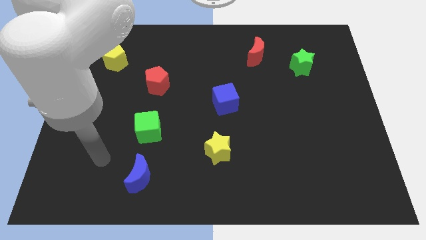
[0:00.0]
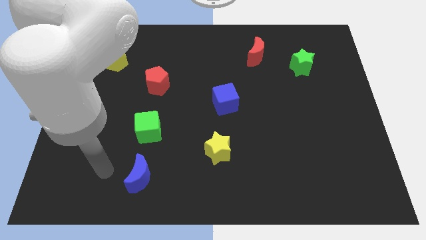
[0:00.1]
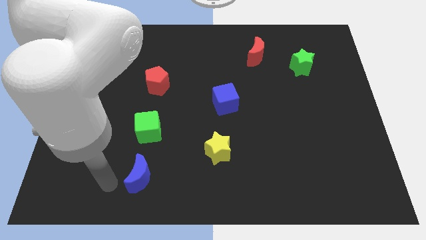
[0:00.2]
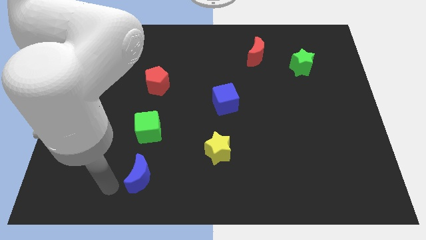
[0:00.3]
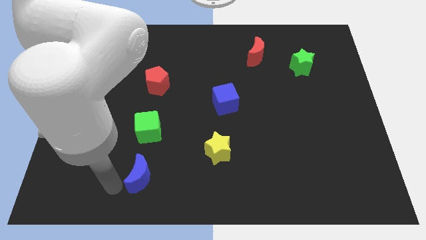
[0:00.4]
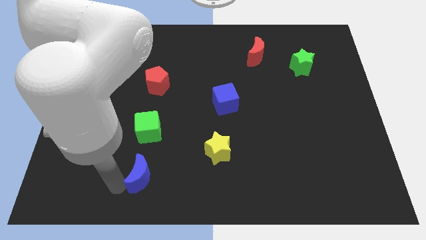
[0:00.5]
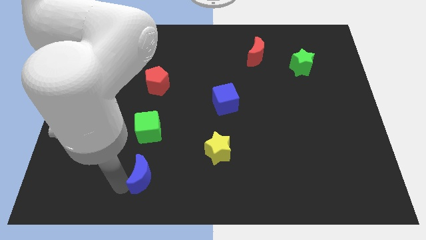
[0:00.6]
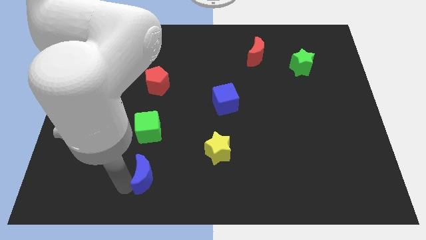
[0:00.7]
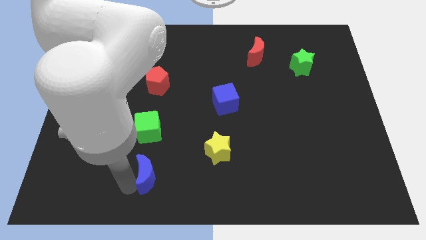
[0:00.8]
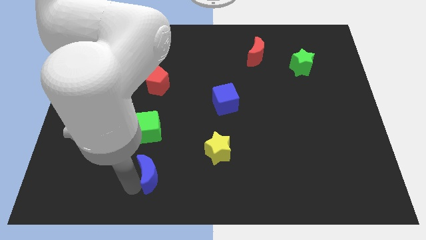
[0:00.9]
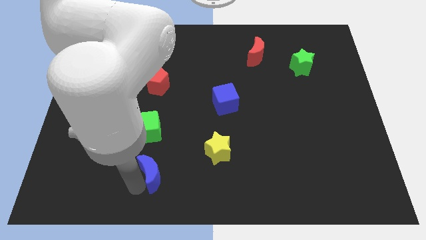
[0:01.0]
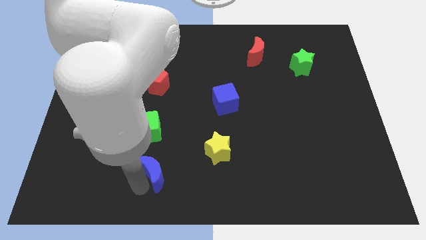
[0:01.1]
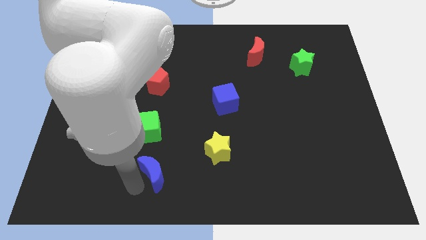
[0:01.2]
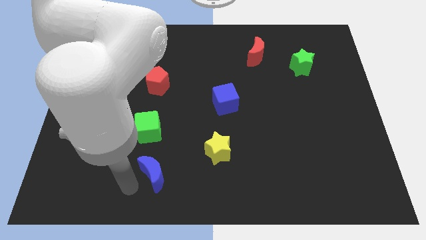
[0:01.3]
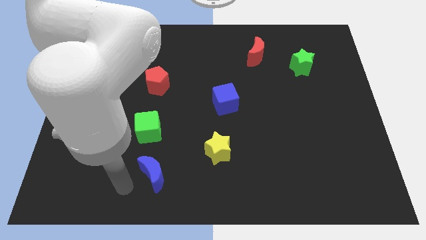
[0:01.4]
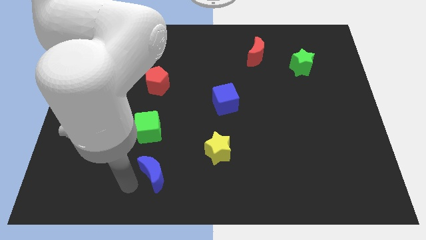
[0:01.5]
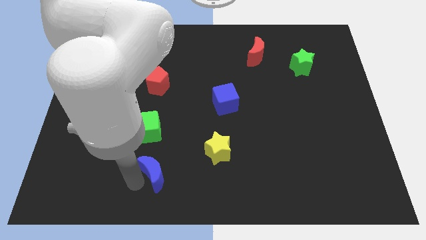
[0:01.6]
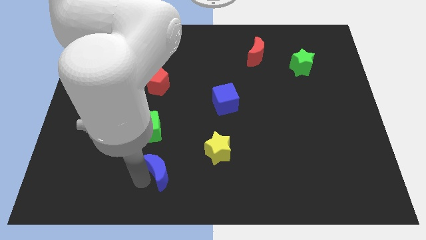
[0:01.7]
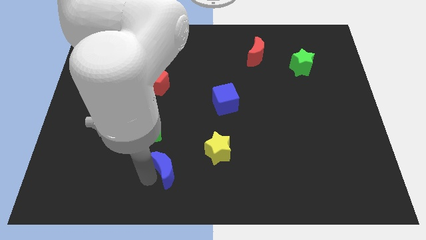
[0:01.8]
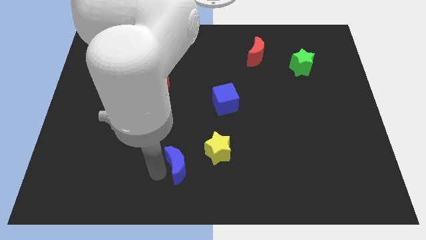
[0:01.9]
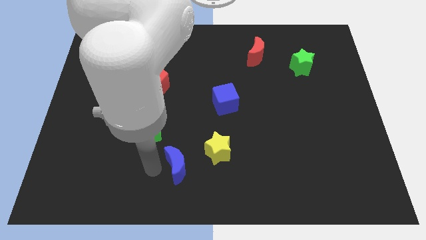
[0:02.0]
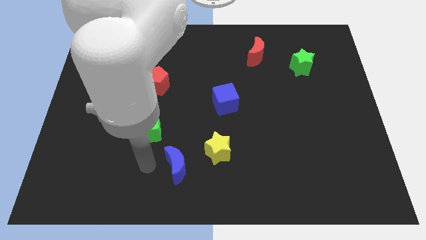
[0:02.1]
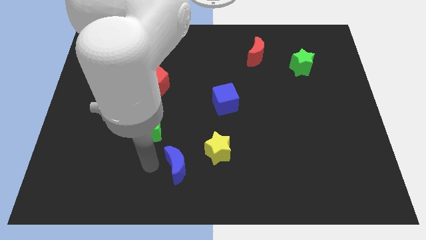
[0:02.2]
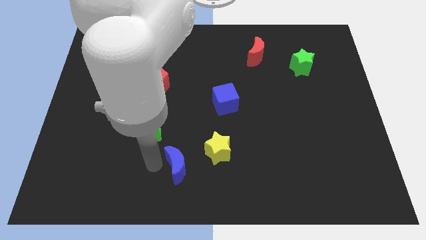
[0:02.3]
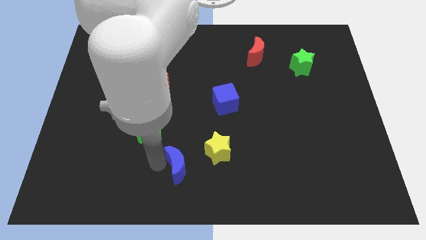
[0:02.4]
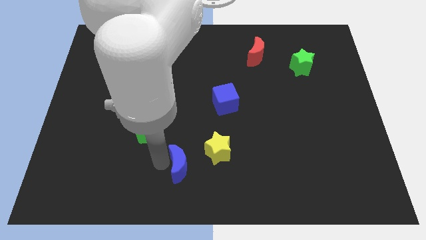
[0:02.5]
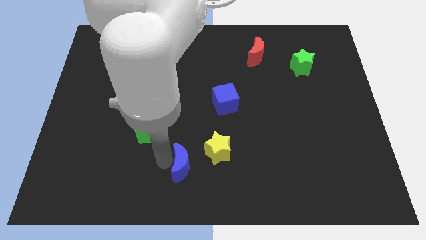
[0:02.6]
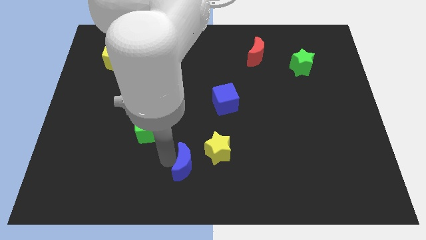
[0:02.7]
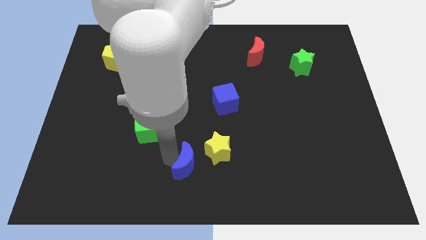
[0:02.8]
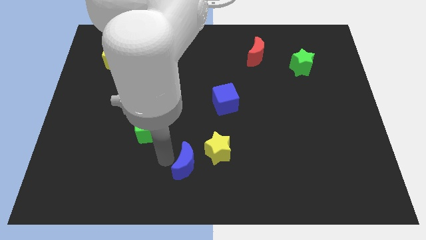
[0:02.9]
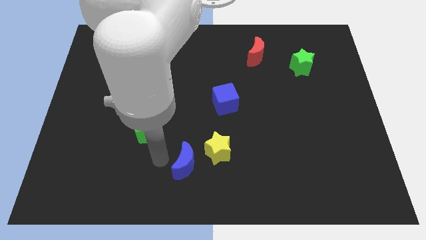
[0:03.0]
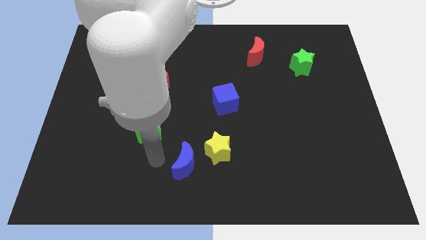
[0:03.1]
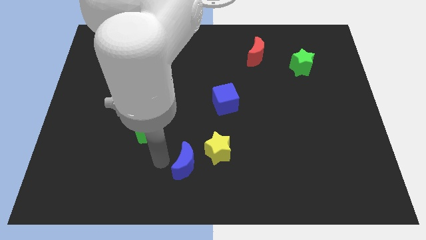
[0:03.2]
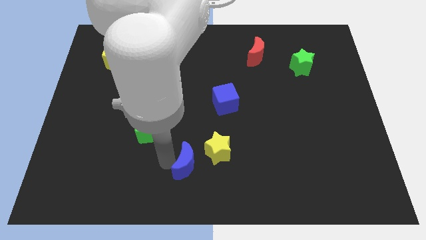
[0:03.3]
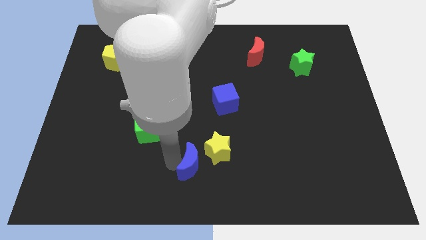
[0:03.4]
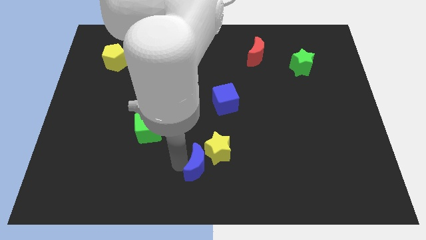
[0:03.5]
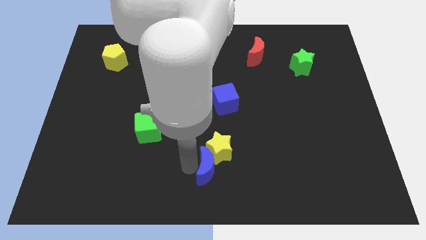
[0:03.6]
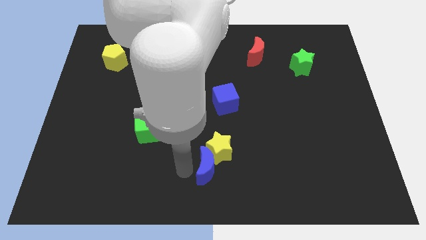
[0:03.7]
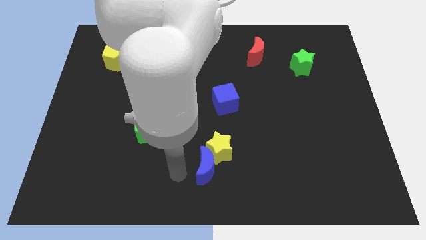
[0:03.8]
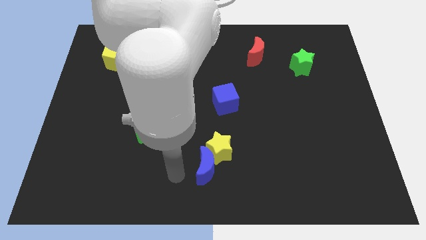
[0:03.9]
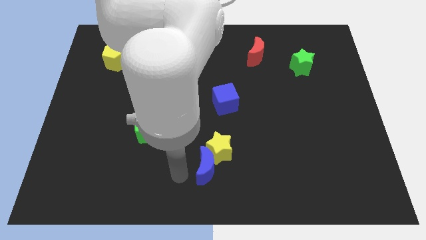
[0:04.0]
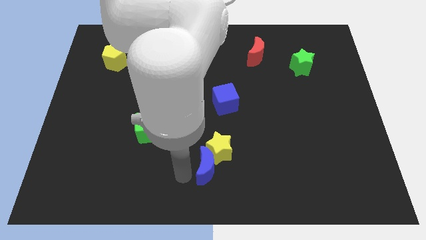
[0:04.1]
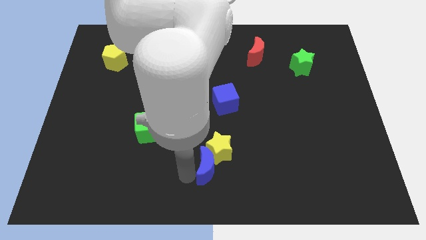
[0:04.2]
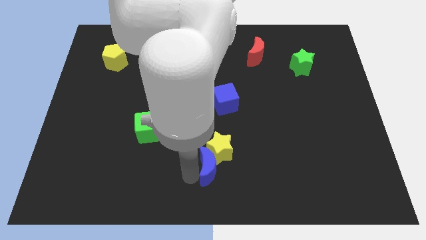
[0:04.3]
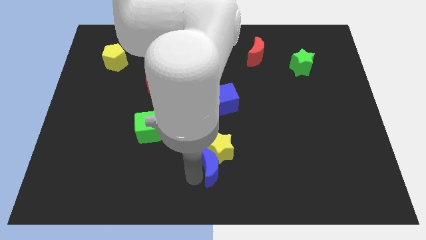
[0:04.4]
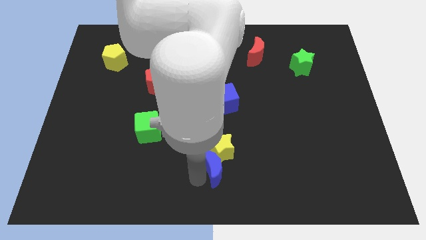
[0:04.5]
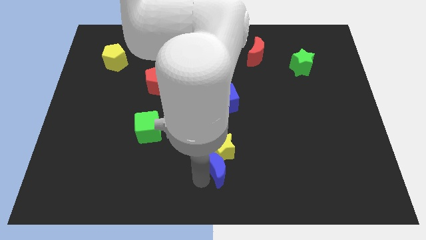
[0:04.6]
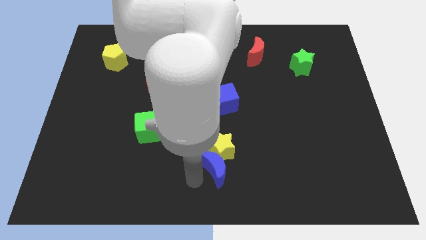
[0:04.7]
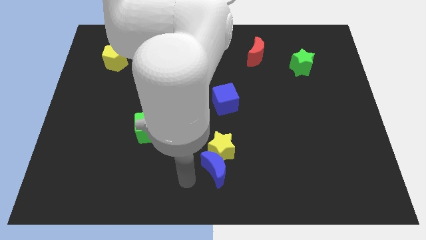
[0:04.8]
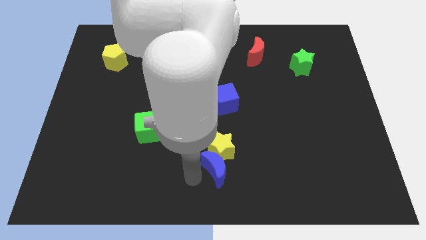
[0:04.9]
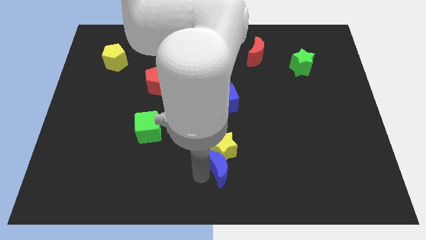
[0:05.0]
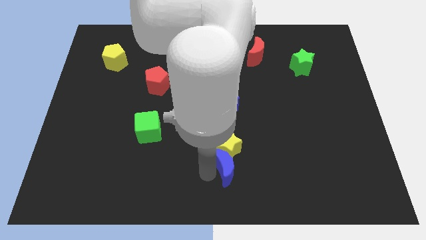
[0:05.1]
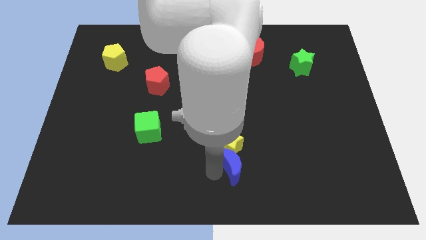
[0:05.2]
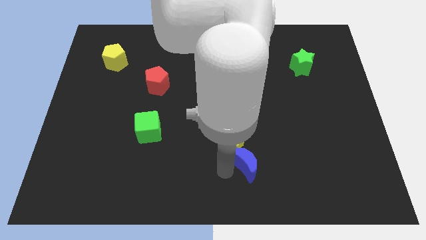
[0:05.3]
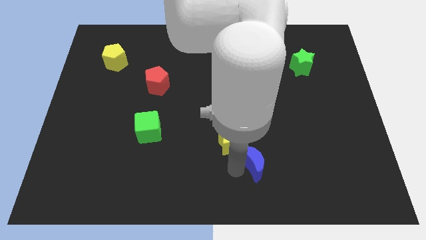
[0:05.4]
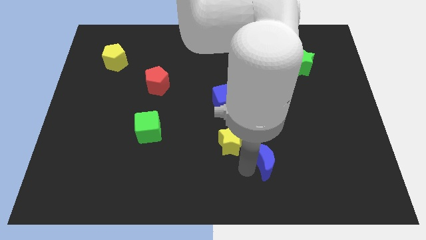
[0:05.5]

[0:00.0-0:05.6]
put the blue moon to the right of the yellow star

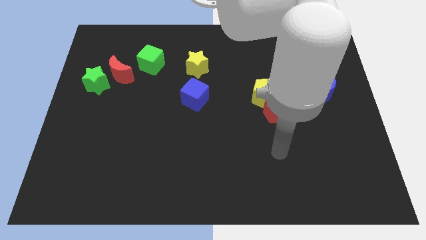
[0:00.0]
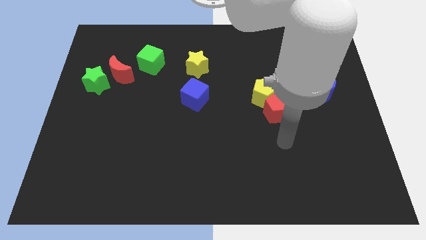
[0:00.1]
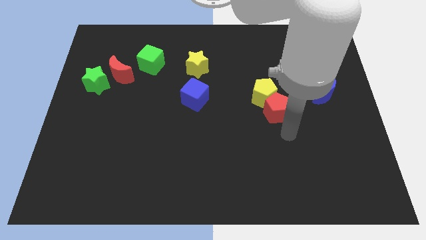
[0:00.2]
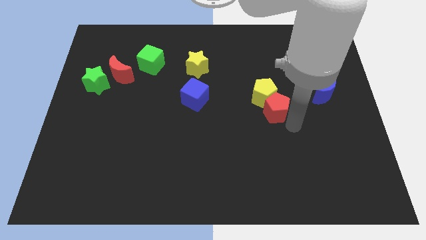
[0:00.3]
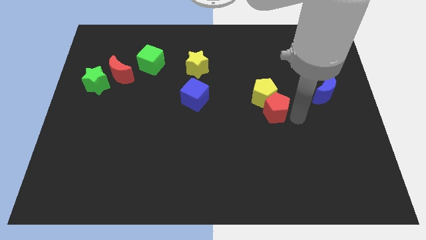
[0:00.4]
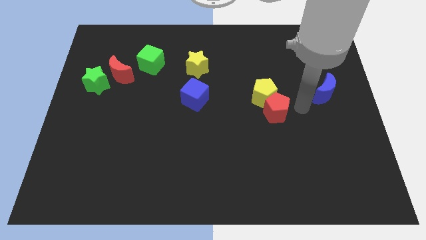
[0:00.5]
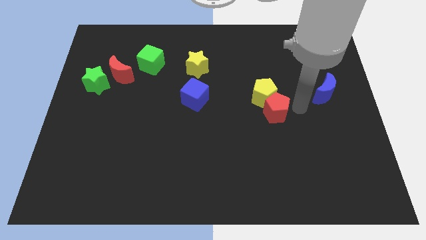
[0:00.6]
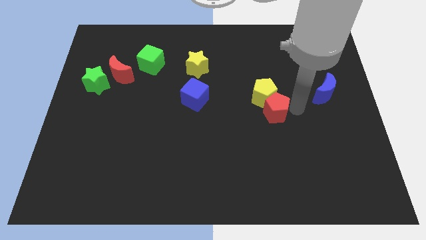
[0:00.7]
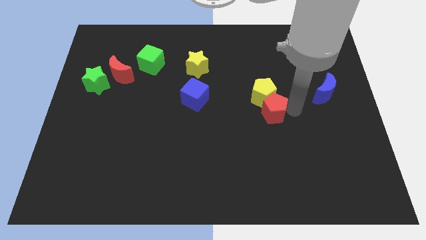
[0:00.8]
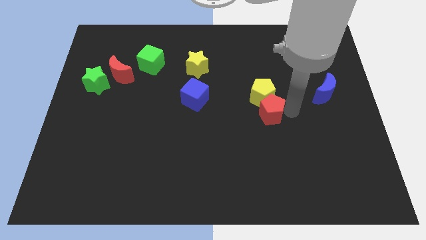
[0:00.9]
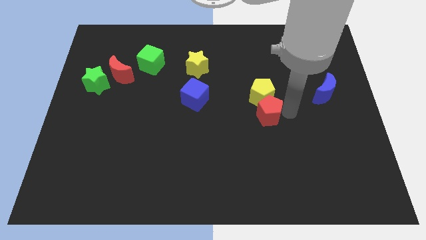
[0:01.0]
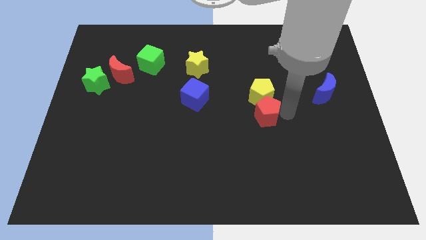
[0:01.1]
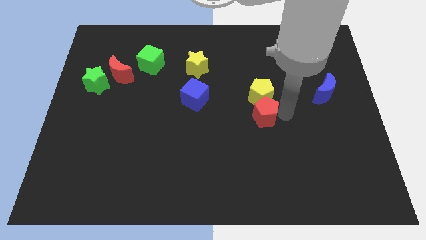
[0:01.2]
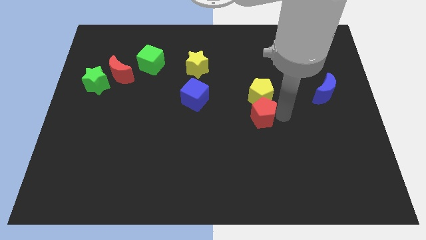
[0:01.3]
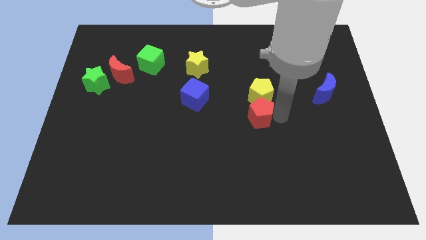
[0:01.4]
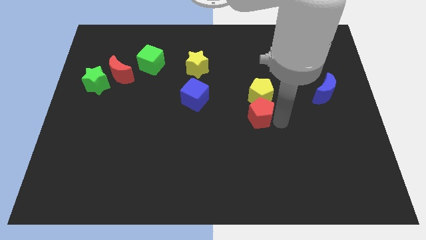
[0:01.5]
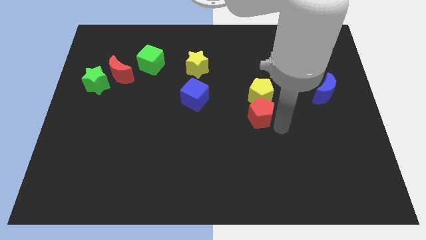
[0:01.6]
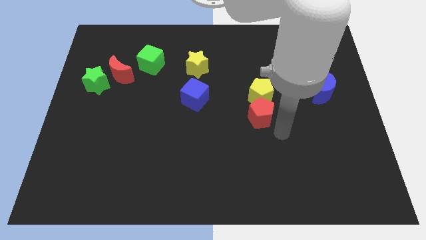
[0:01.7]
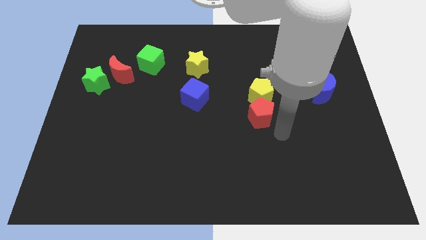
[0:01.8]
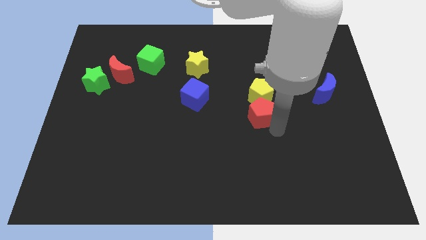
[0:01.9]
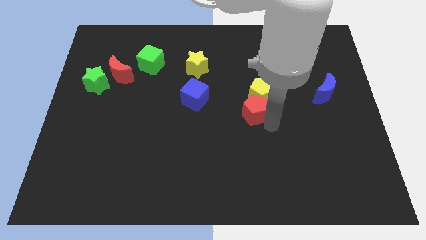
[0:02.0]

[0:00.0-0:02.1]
put the red pentagon to the right side of the blue cube

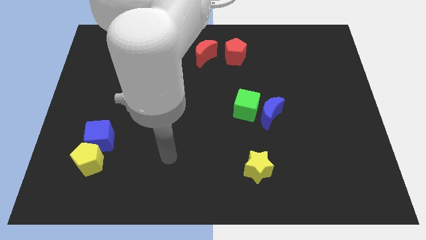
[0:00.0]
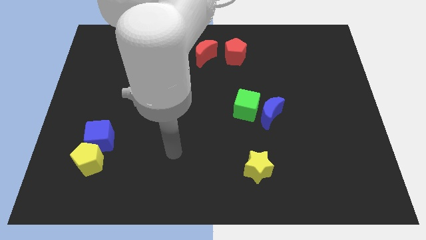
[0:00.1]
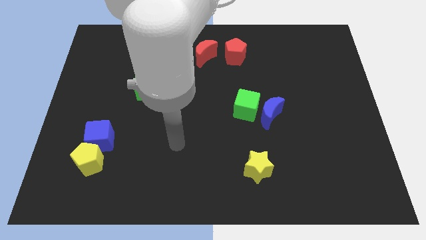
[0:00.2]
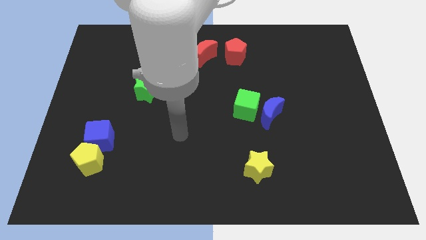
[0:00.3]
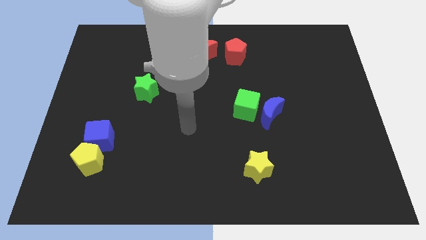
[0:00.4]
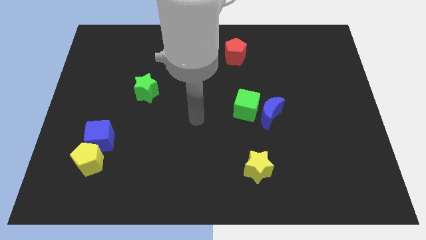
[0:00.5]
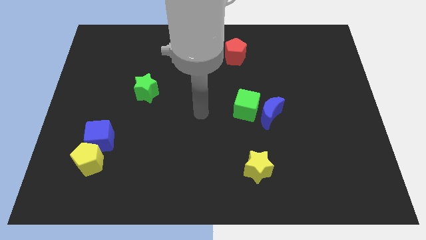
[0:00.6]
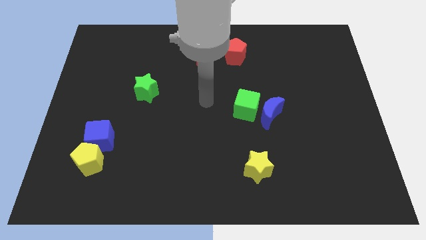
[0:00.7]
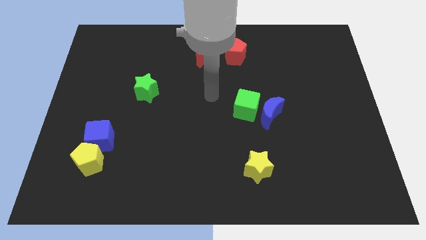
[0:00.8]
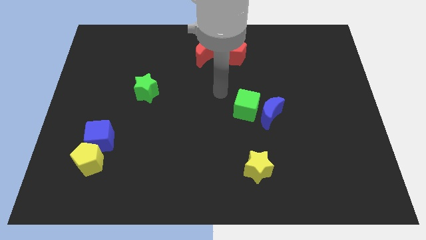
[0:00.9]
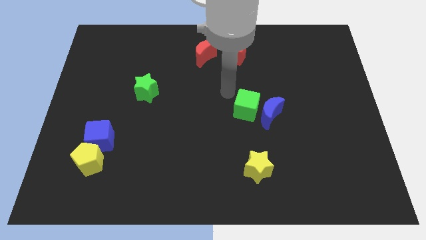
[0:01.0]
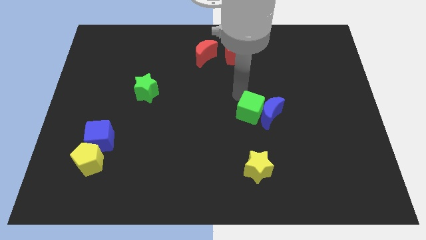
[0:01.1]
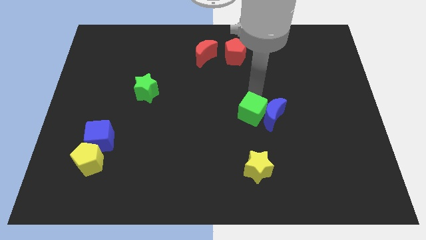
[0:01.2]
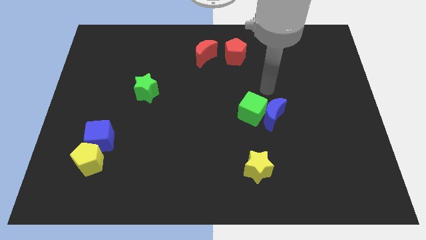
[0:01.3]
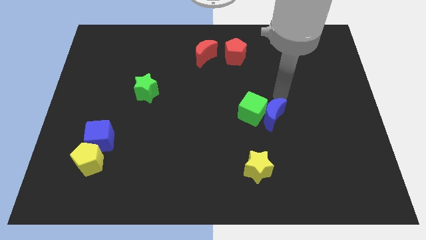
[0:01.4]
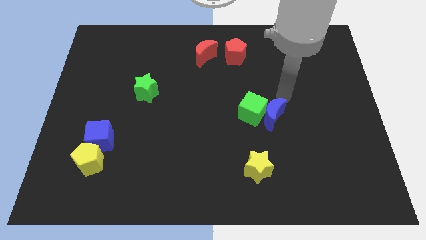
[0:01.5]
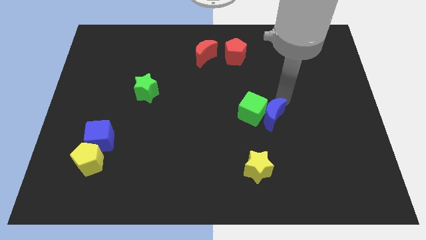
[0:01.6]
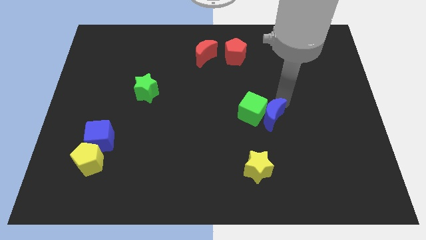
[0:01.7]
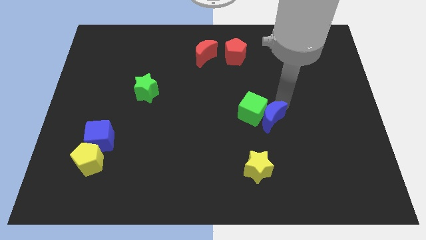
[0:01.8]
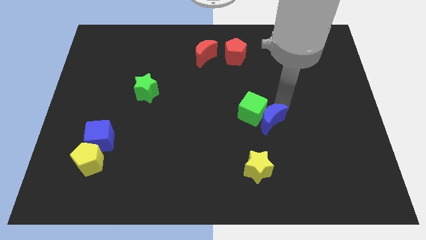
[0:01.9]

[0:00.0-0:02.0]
push the blue moon to the bottom of the green cube
